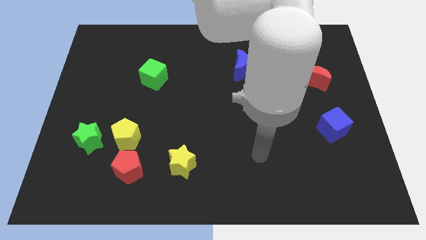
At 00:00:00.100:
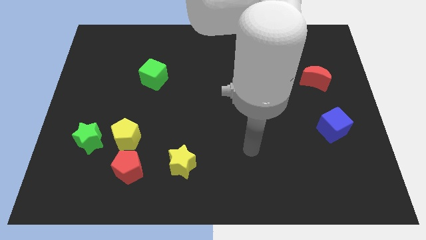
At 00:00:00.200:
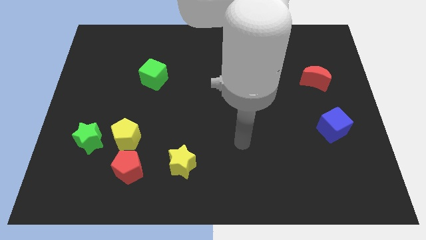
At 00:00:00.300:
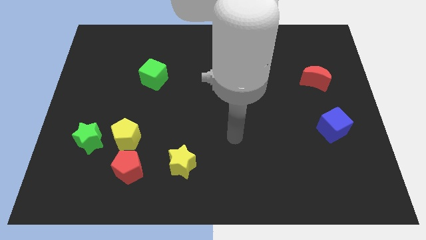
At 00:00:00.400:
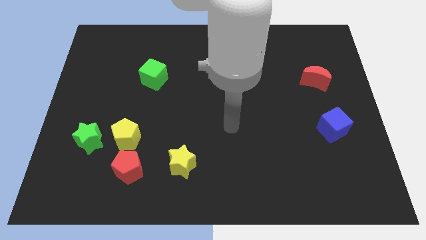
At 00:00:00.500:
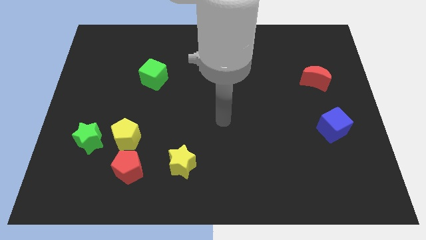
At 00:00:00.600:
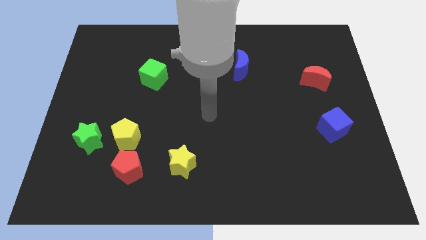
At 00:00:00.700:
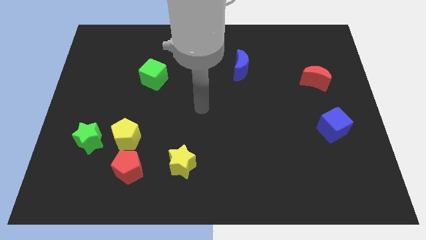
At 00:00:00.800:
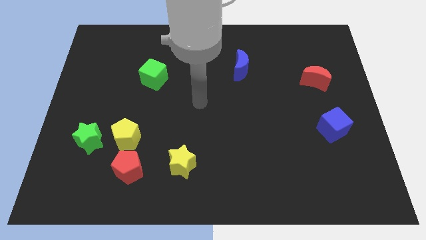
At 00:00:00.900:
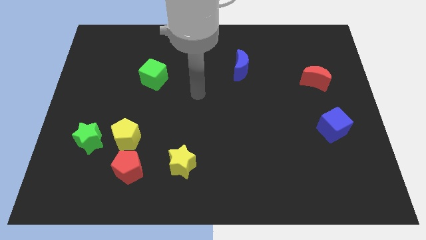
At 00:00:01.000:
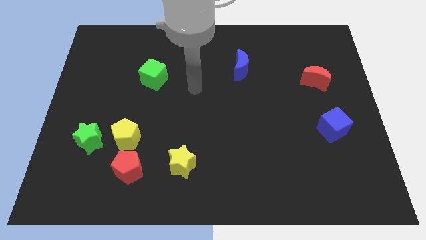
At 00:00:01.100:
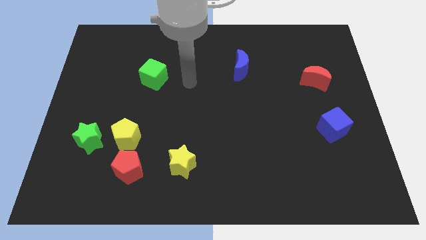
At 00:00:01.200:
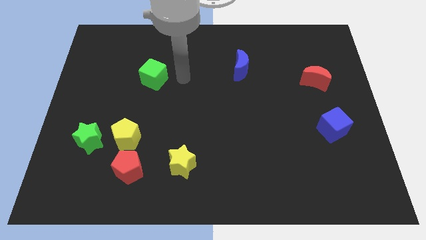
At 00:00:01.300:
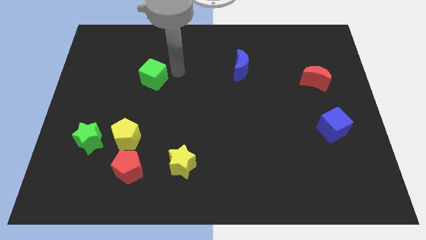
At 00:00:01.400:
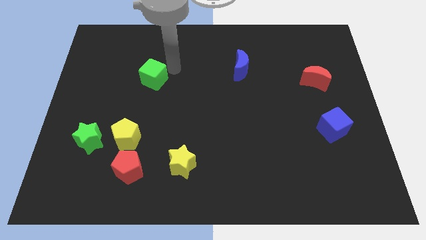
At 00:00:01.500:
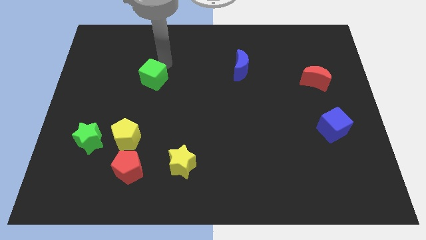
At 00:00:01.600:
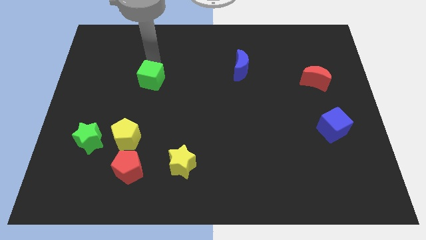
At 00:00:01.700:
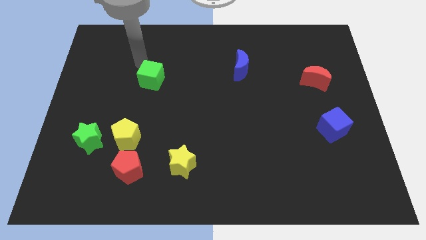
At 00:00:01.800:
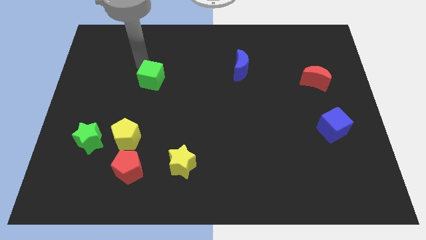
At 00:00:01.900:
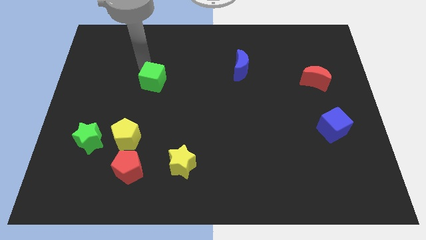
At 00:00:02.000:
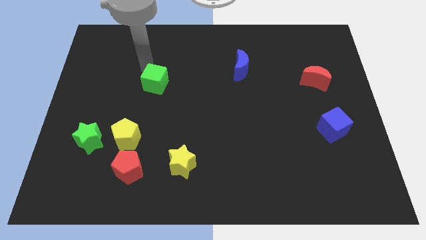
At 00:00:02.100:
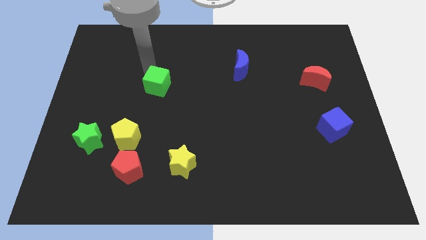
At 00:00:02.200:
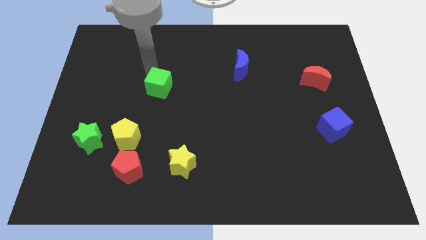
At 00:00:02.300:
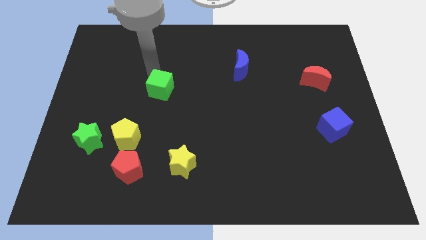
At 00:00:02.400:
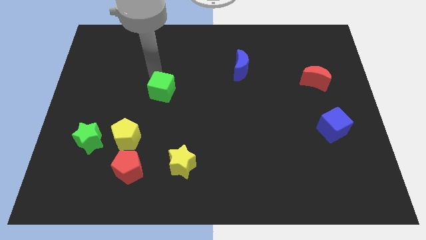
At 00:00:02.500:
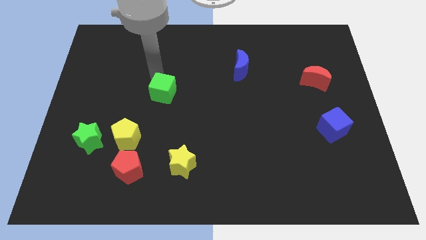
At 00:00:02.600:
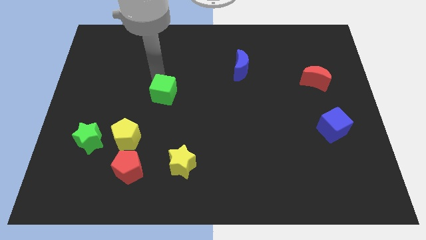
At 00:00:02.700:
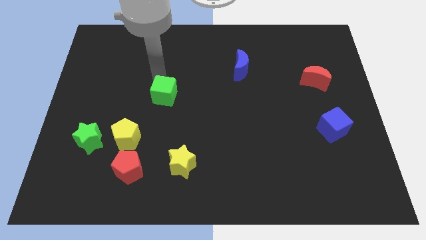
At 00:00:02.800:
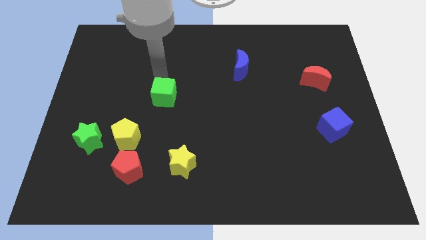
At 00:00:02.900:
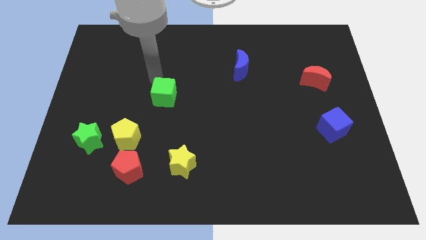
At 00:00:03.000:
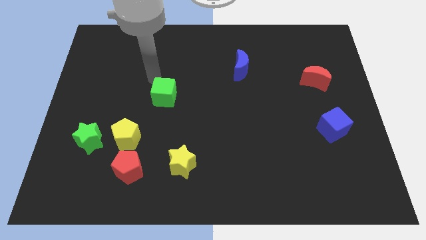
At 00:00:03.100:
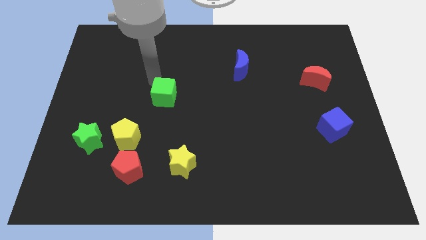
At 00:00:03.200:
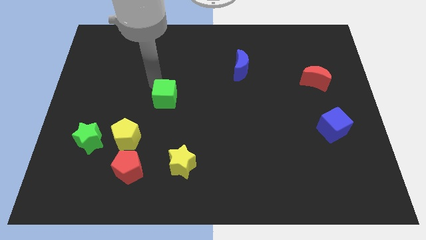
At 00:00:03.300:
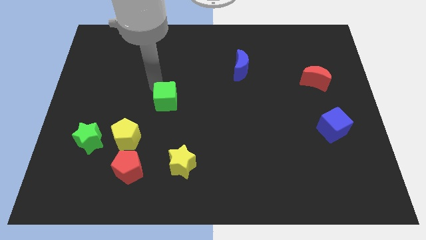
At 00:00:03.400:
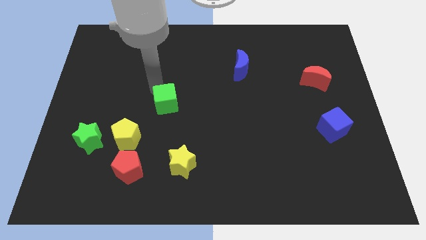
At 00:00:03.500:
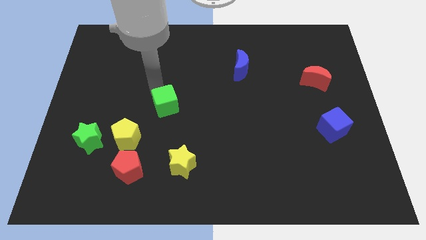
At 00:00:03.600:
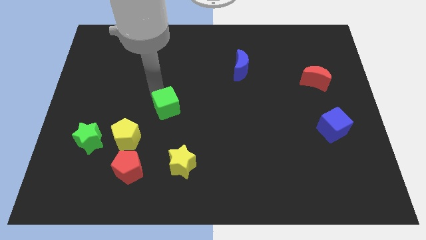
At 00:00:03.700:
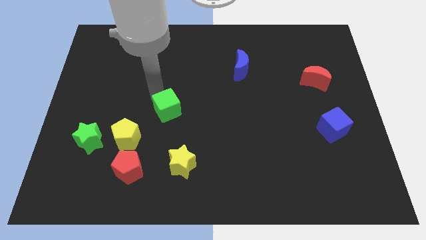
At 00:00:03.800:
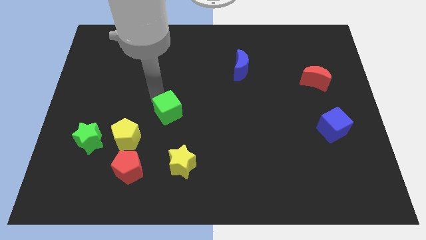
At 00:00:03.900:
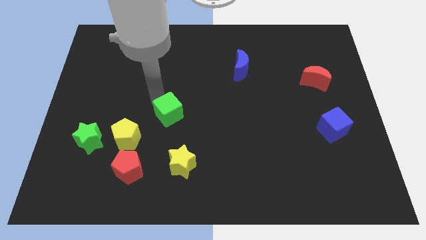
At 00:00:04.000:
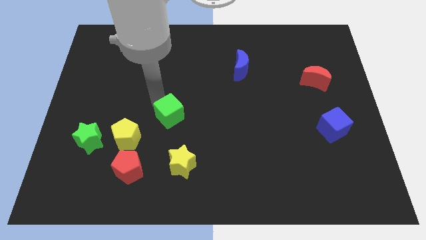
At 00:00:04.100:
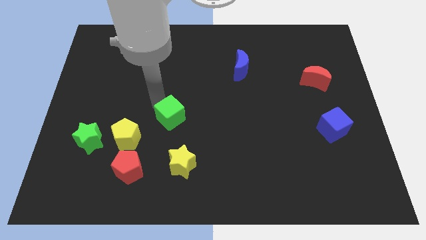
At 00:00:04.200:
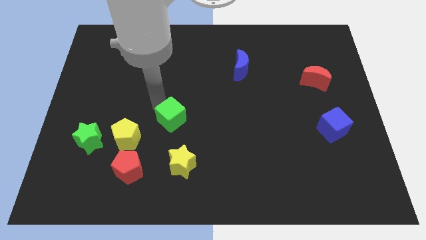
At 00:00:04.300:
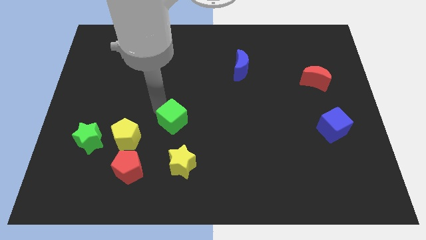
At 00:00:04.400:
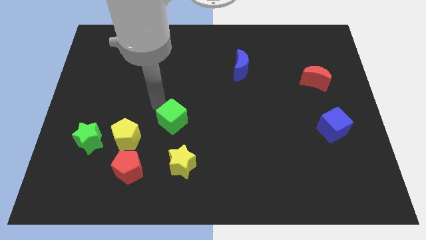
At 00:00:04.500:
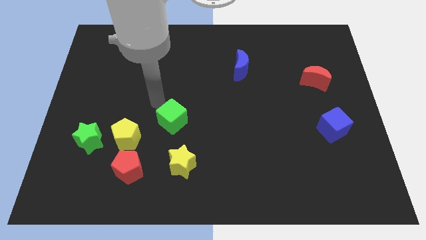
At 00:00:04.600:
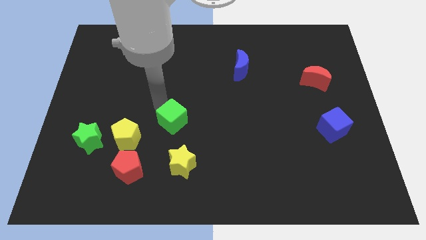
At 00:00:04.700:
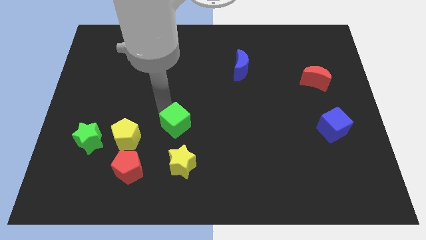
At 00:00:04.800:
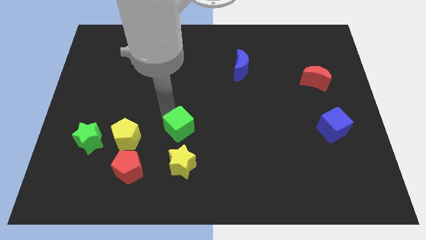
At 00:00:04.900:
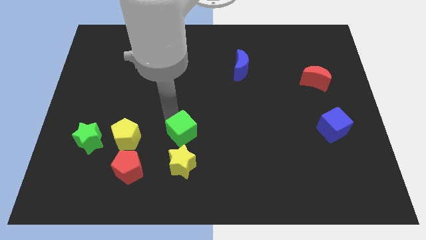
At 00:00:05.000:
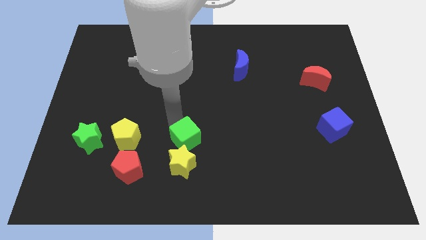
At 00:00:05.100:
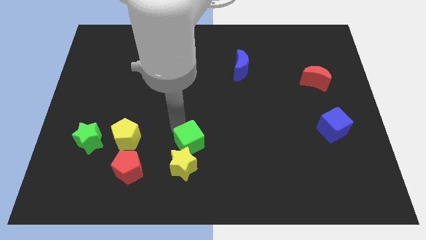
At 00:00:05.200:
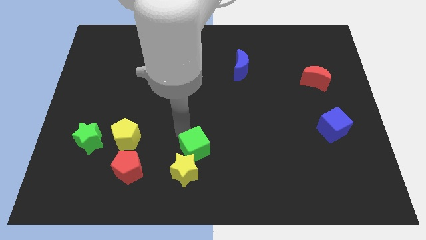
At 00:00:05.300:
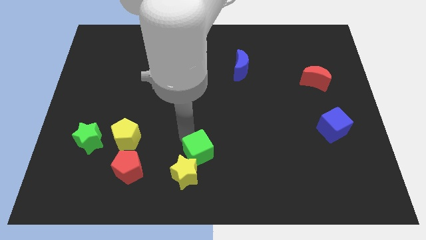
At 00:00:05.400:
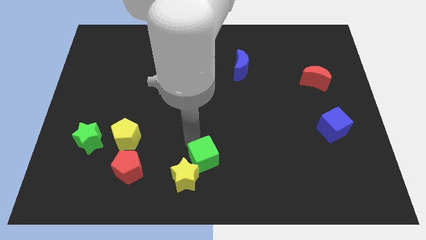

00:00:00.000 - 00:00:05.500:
slide the green cube to the bottom

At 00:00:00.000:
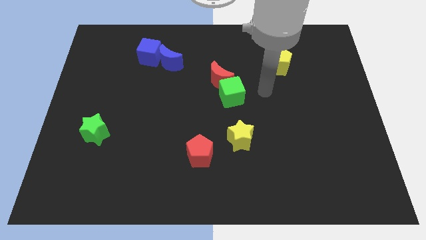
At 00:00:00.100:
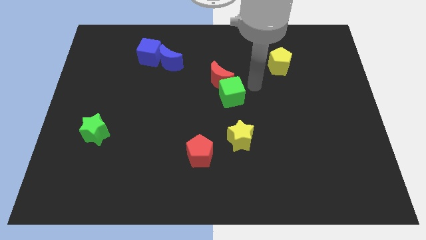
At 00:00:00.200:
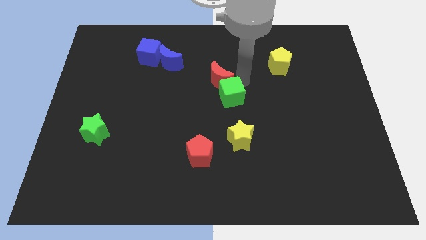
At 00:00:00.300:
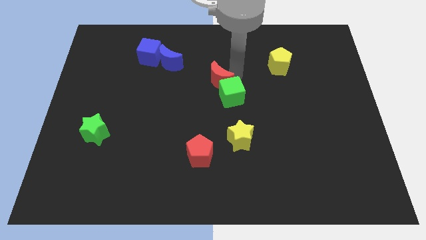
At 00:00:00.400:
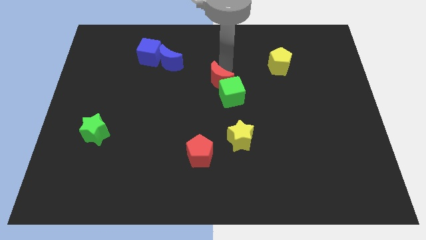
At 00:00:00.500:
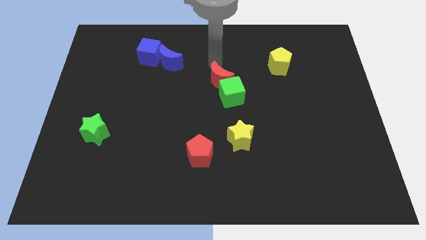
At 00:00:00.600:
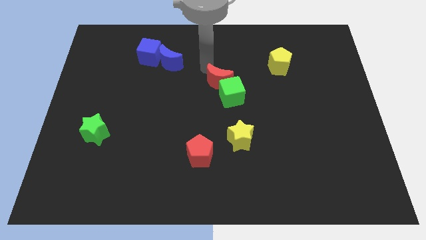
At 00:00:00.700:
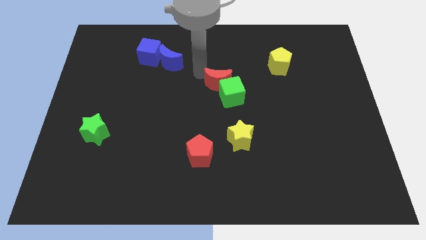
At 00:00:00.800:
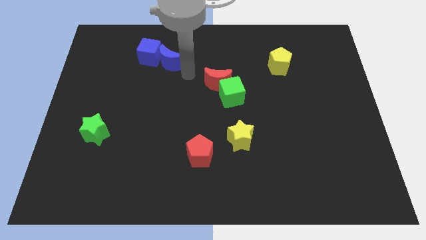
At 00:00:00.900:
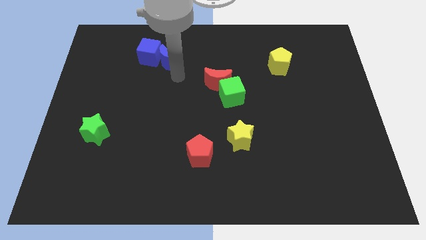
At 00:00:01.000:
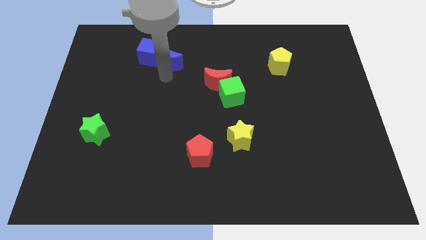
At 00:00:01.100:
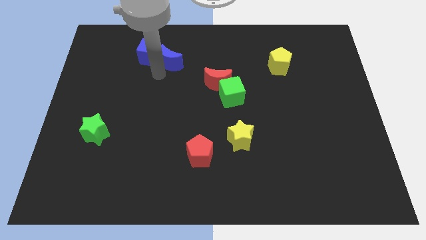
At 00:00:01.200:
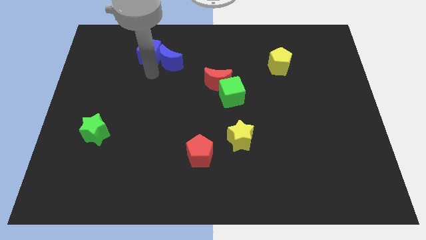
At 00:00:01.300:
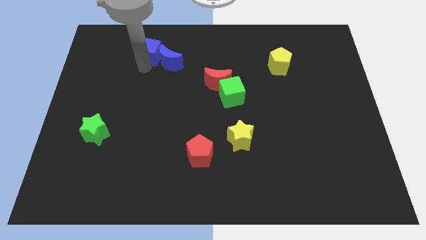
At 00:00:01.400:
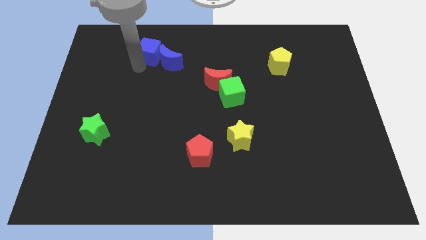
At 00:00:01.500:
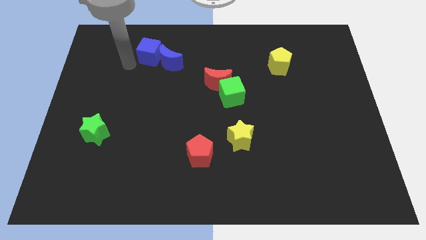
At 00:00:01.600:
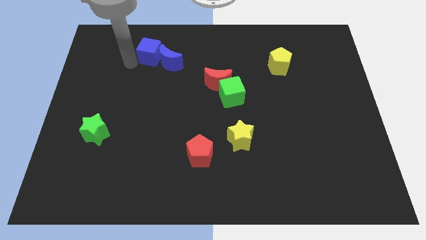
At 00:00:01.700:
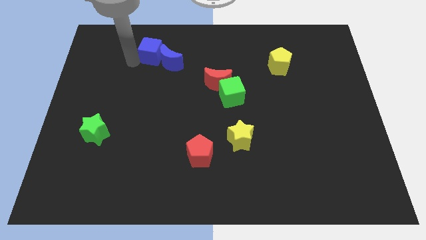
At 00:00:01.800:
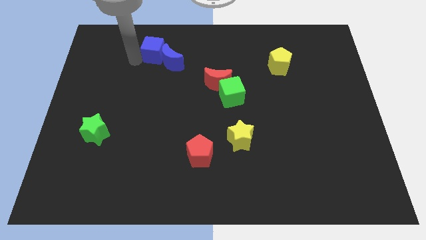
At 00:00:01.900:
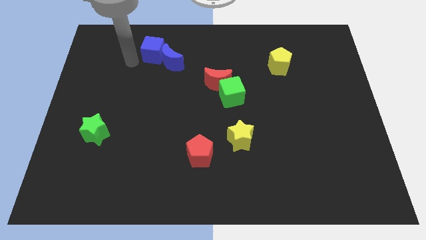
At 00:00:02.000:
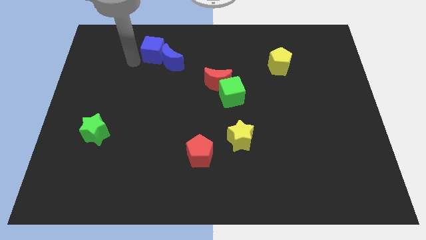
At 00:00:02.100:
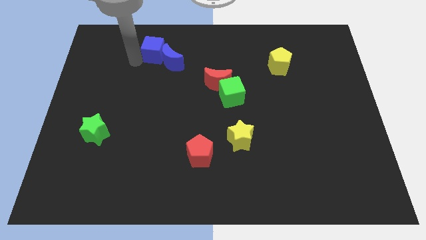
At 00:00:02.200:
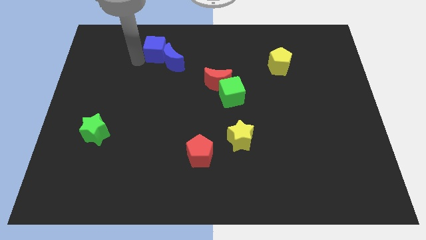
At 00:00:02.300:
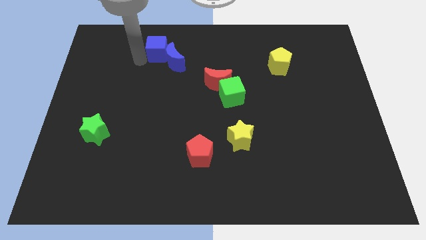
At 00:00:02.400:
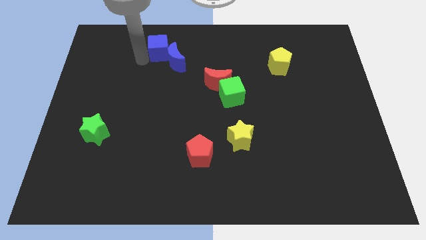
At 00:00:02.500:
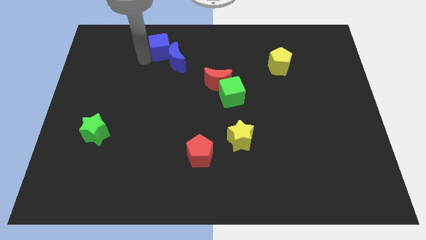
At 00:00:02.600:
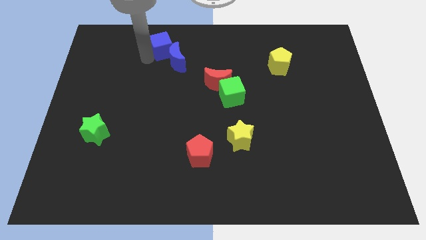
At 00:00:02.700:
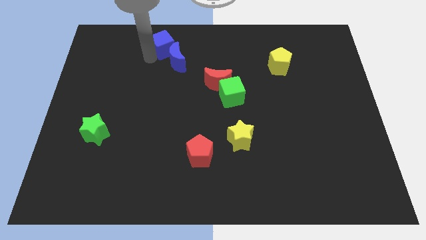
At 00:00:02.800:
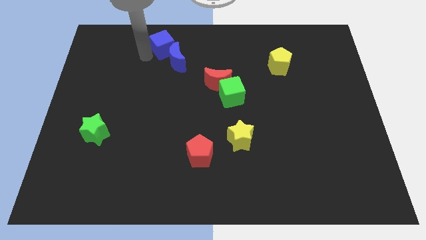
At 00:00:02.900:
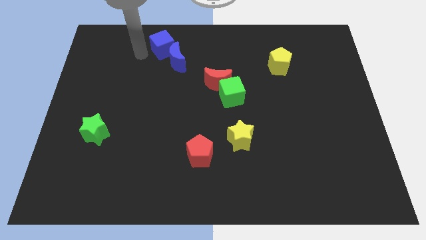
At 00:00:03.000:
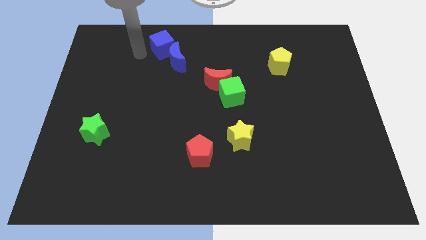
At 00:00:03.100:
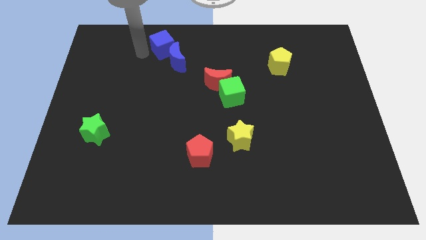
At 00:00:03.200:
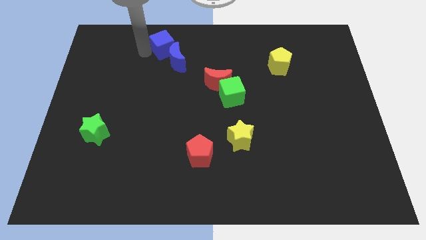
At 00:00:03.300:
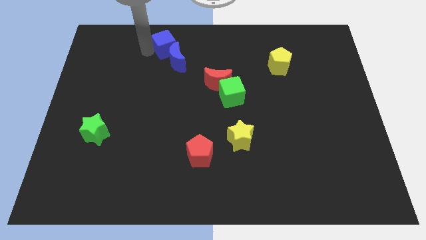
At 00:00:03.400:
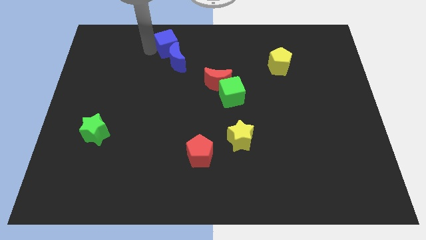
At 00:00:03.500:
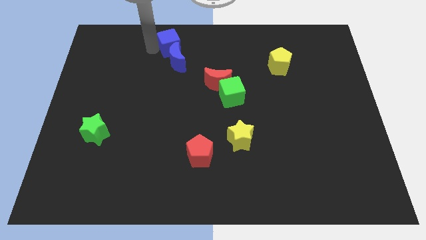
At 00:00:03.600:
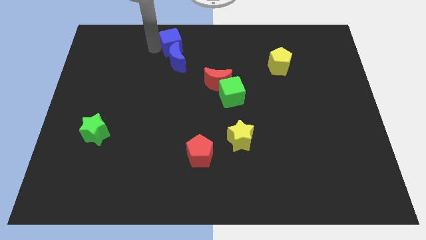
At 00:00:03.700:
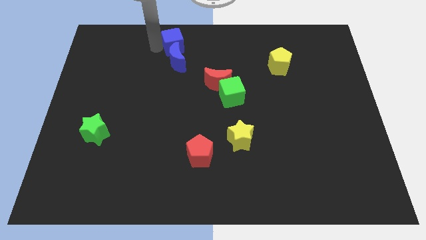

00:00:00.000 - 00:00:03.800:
push the blue cube to the towards your base
